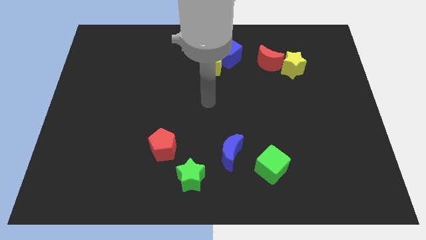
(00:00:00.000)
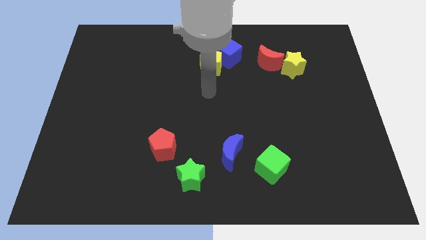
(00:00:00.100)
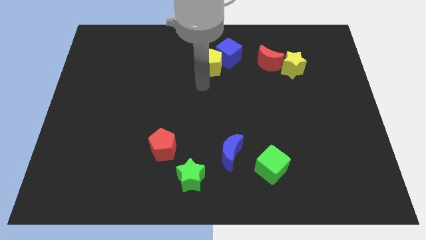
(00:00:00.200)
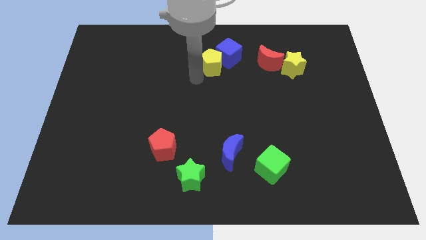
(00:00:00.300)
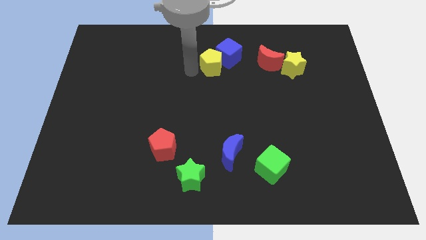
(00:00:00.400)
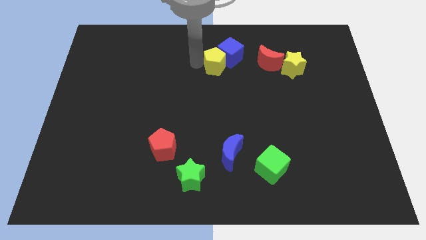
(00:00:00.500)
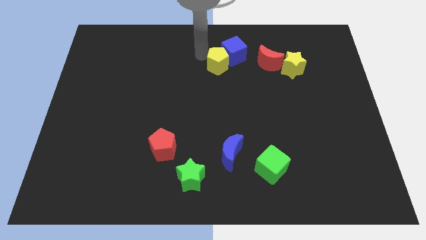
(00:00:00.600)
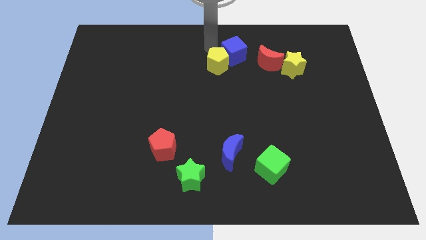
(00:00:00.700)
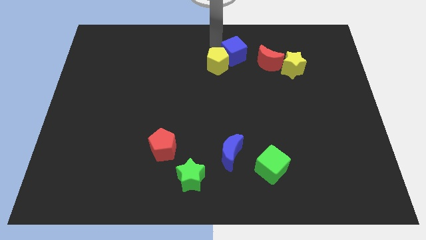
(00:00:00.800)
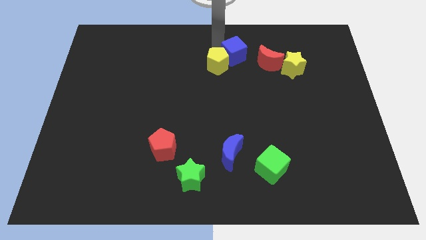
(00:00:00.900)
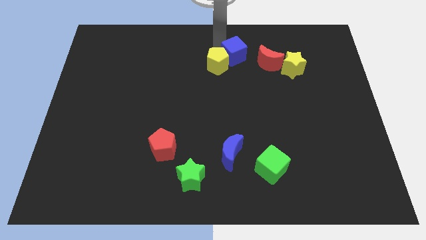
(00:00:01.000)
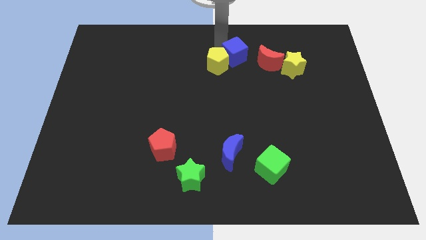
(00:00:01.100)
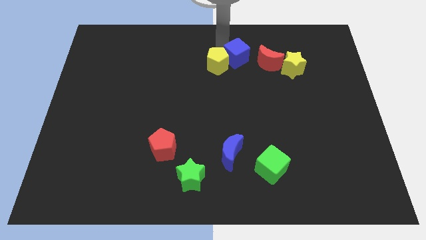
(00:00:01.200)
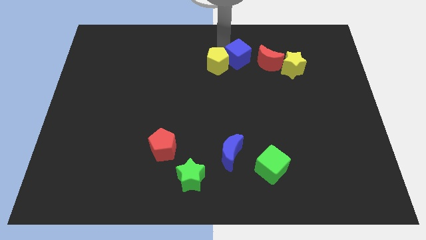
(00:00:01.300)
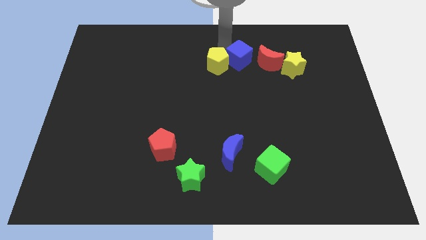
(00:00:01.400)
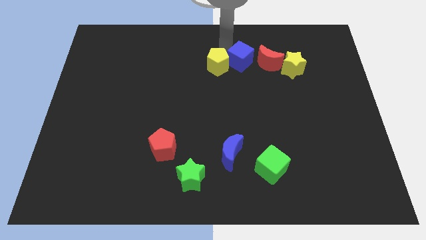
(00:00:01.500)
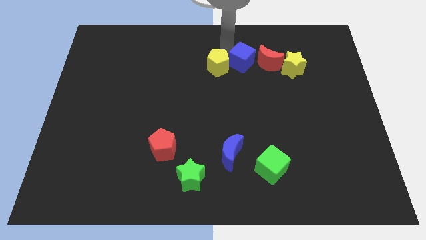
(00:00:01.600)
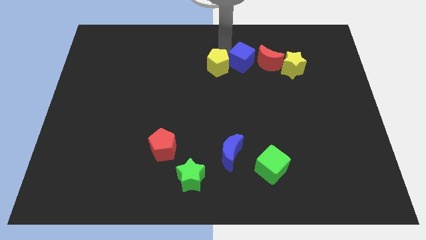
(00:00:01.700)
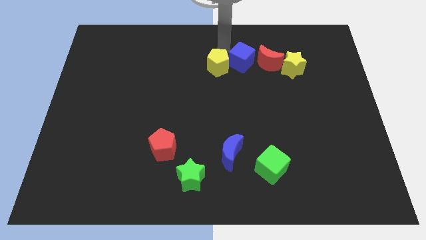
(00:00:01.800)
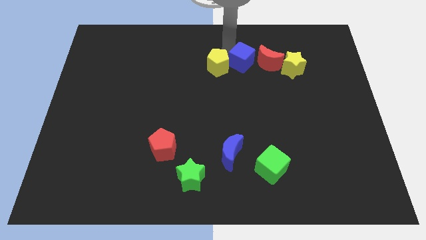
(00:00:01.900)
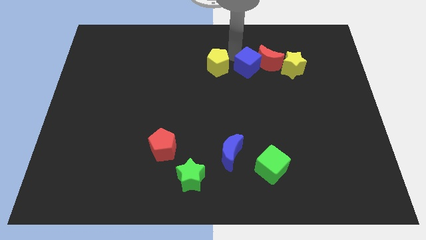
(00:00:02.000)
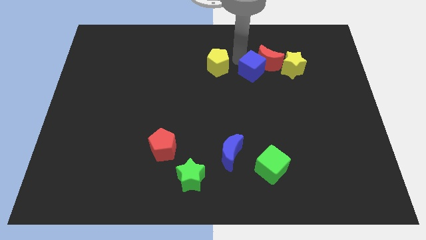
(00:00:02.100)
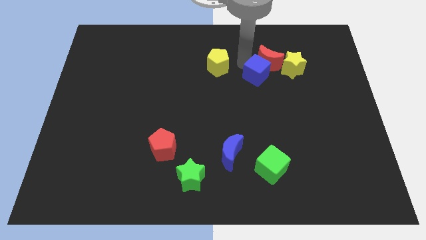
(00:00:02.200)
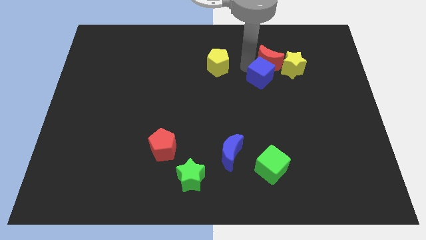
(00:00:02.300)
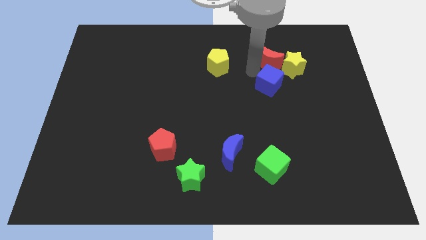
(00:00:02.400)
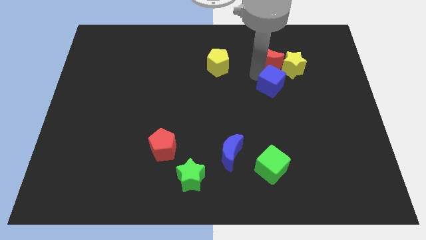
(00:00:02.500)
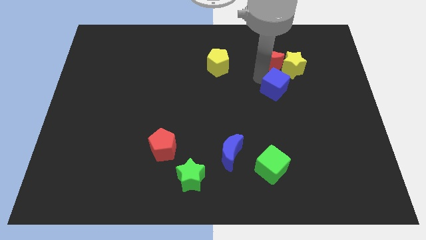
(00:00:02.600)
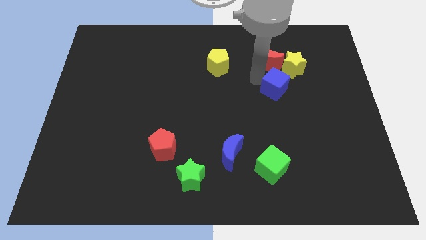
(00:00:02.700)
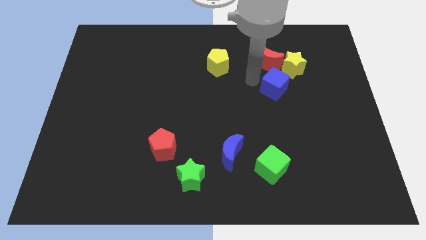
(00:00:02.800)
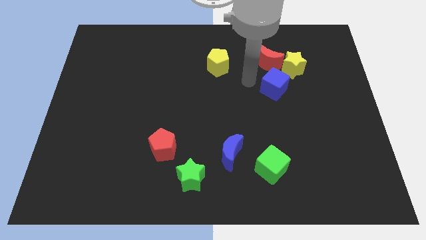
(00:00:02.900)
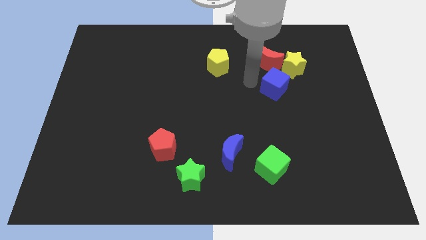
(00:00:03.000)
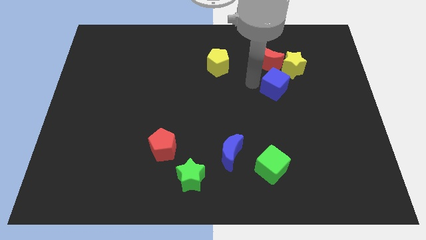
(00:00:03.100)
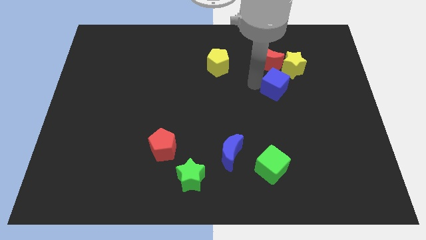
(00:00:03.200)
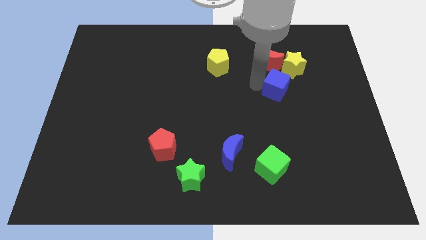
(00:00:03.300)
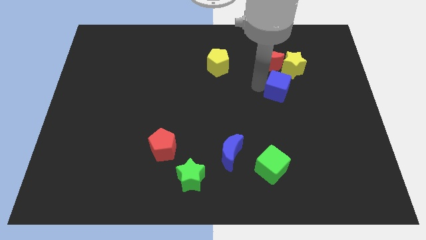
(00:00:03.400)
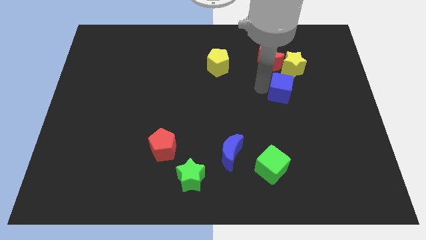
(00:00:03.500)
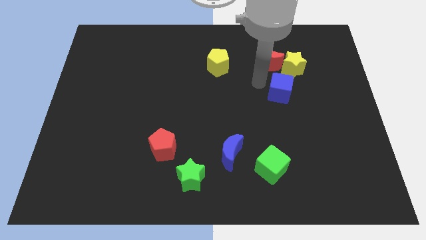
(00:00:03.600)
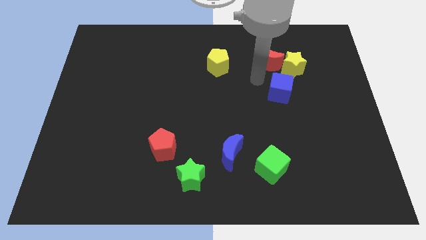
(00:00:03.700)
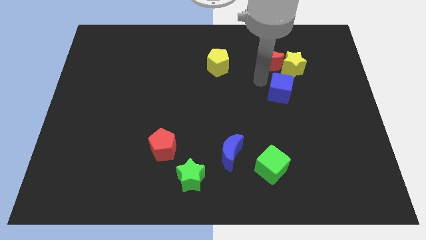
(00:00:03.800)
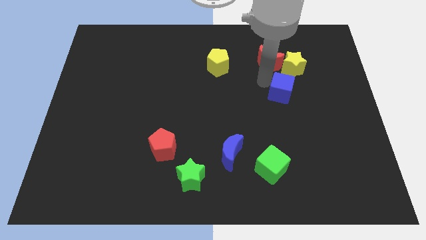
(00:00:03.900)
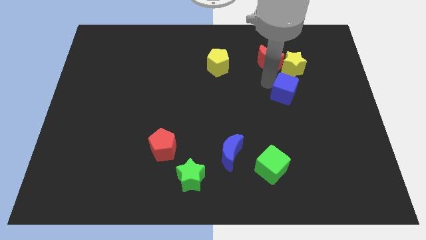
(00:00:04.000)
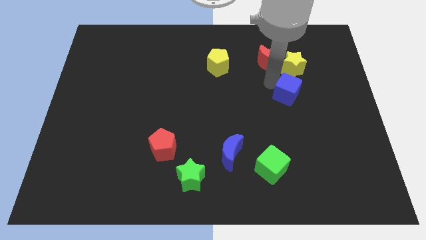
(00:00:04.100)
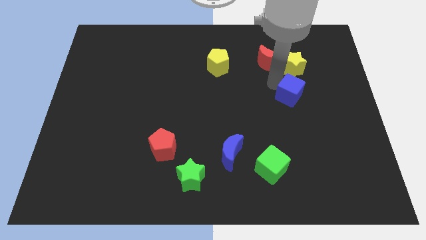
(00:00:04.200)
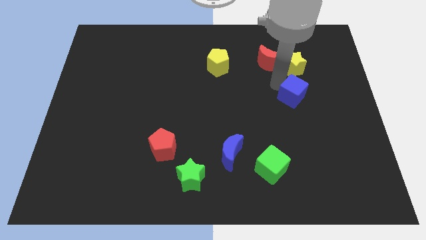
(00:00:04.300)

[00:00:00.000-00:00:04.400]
push the blue cube down and right diagonally

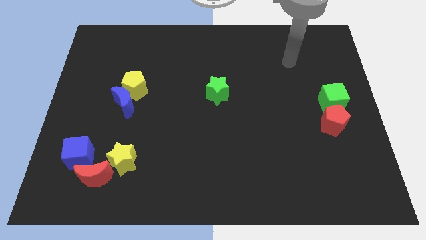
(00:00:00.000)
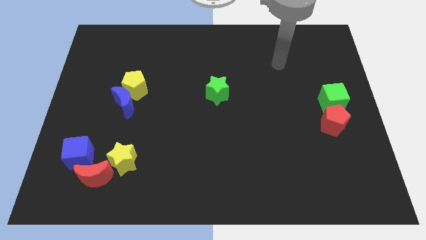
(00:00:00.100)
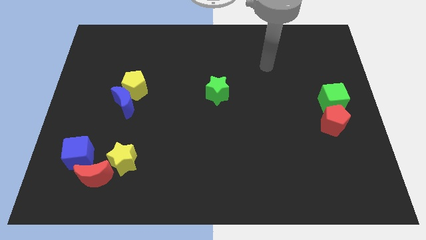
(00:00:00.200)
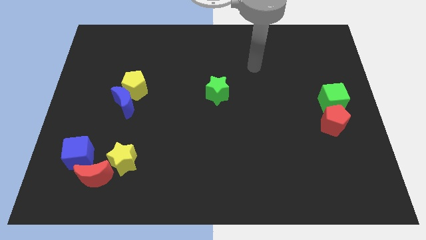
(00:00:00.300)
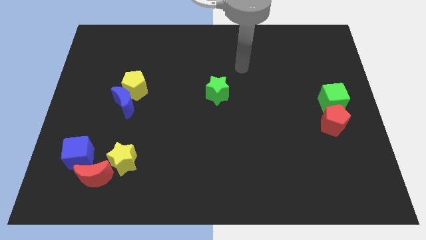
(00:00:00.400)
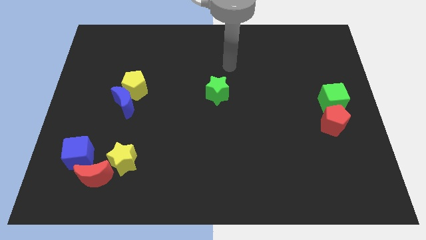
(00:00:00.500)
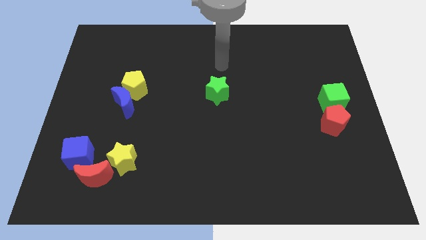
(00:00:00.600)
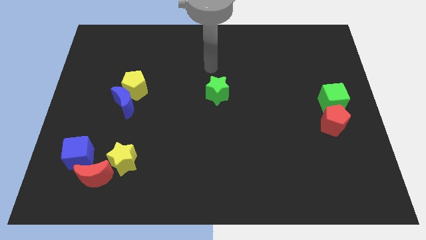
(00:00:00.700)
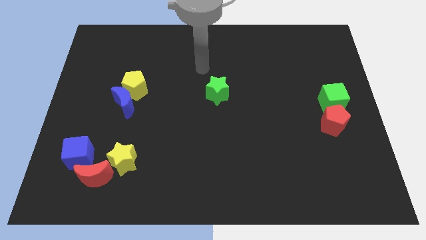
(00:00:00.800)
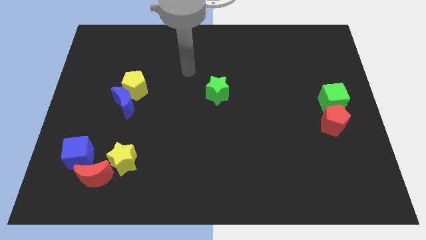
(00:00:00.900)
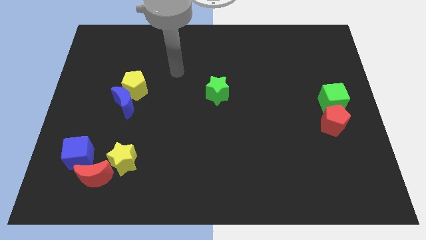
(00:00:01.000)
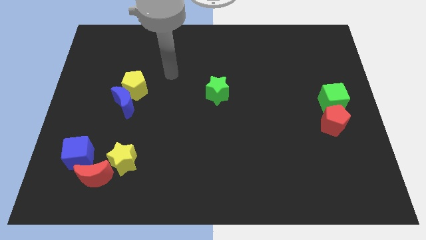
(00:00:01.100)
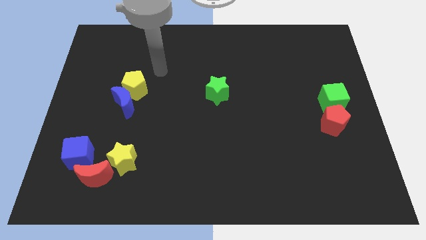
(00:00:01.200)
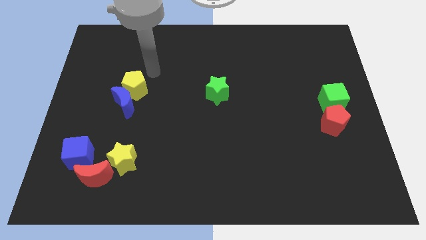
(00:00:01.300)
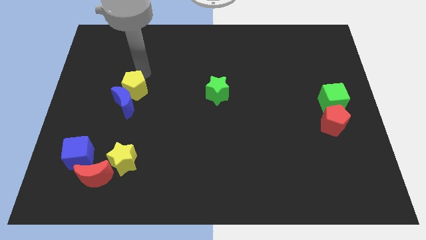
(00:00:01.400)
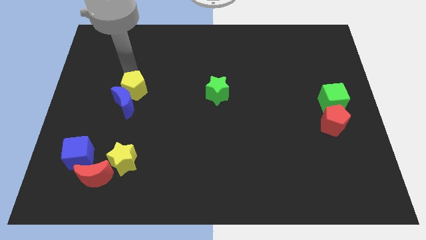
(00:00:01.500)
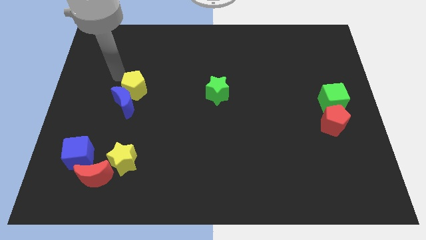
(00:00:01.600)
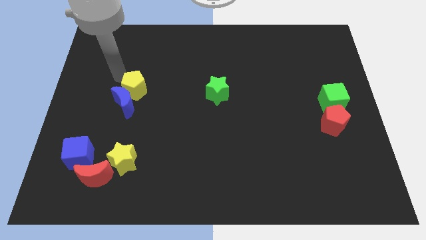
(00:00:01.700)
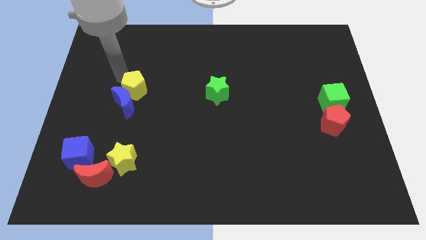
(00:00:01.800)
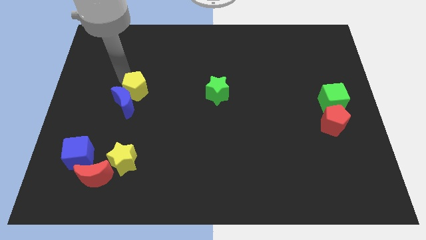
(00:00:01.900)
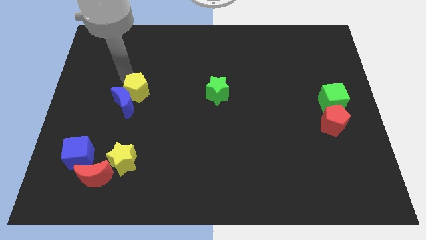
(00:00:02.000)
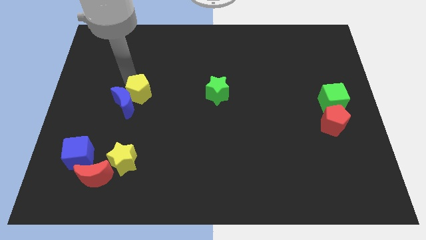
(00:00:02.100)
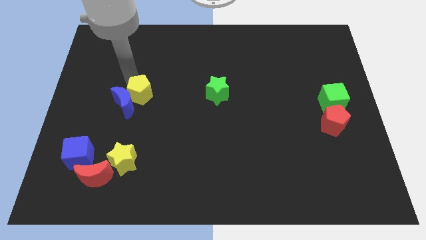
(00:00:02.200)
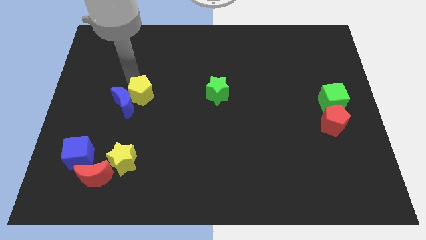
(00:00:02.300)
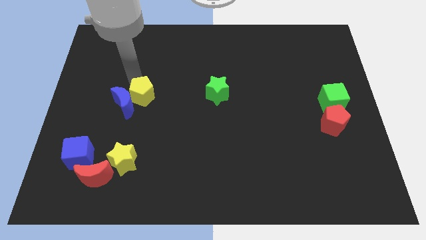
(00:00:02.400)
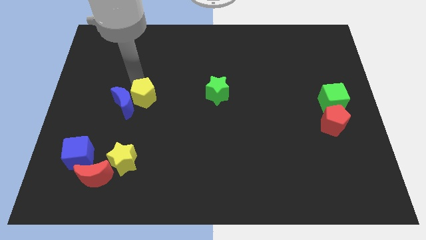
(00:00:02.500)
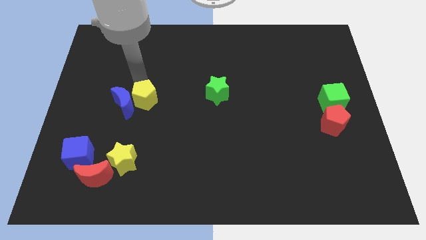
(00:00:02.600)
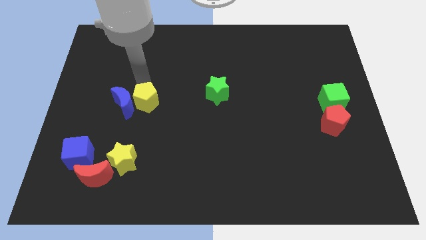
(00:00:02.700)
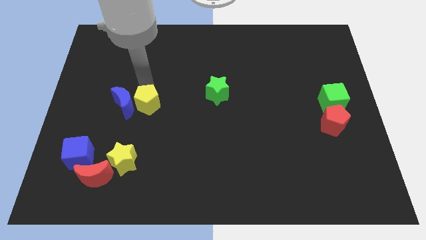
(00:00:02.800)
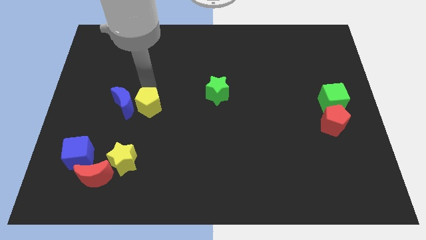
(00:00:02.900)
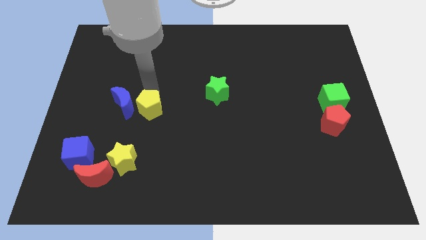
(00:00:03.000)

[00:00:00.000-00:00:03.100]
slide the yellow pentagon down and to the right a little

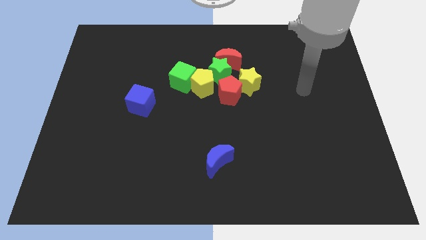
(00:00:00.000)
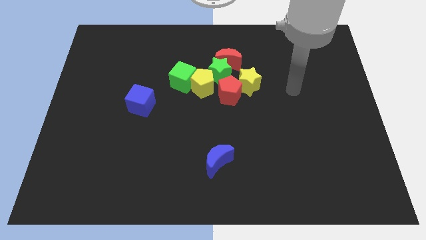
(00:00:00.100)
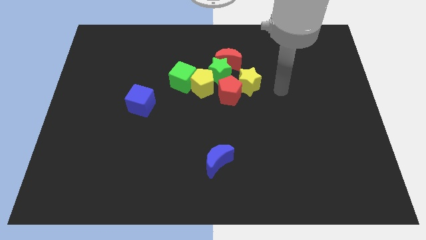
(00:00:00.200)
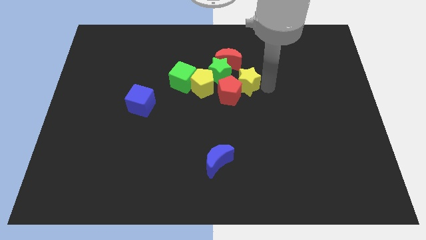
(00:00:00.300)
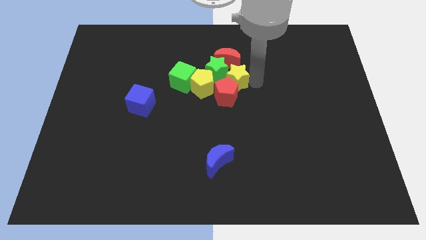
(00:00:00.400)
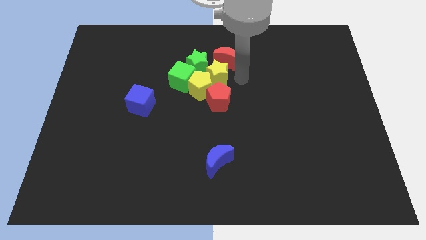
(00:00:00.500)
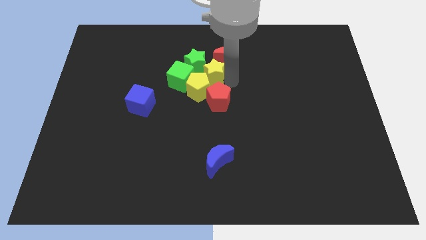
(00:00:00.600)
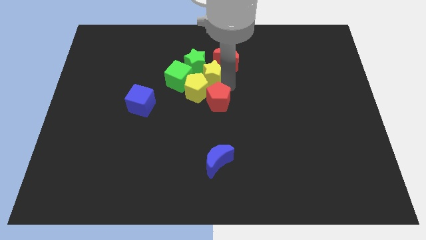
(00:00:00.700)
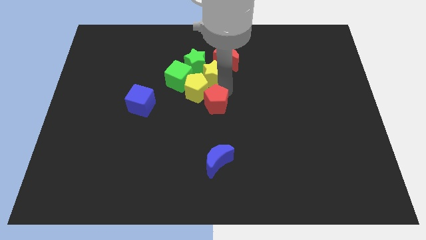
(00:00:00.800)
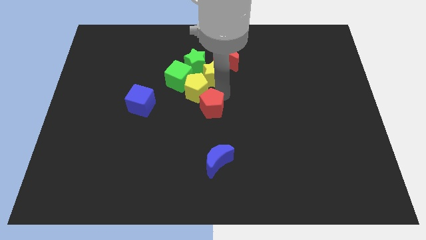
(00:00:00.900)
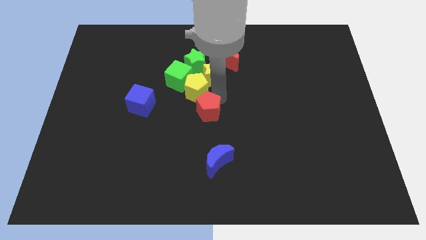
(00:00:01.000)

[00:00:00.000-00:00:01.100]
push the red pentagon a little diagonally down and left
